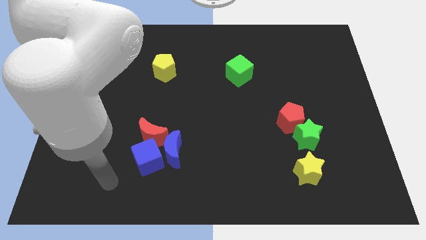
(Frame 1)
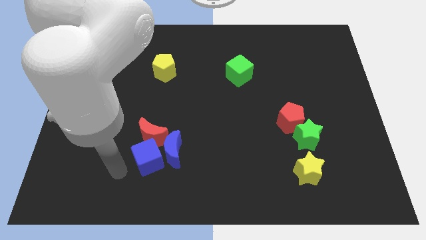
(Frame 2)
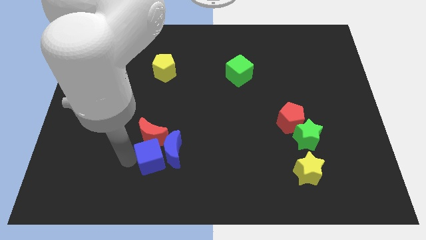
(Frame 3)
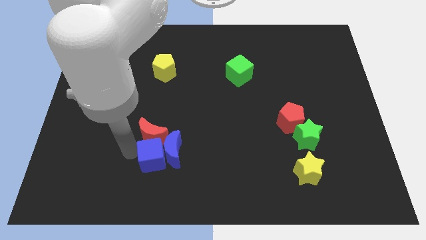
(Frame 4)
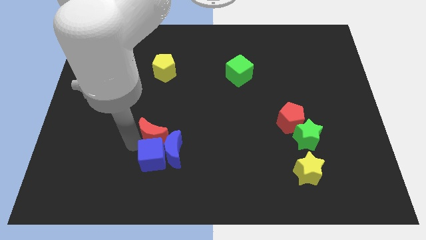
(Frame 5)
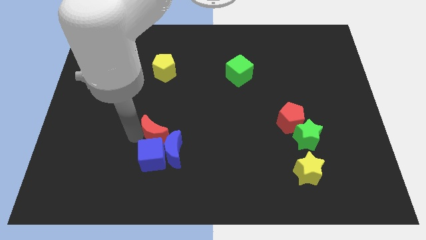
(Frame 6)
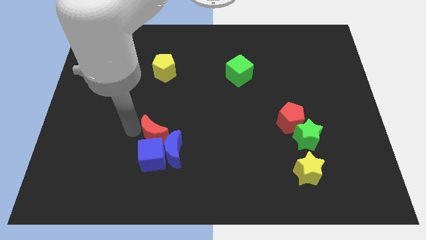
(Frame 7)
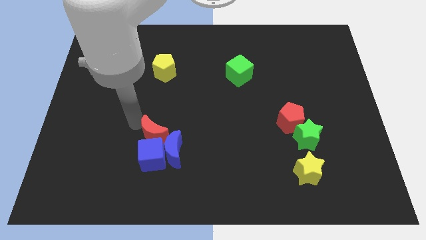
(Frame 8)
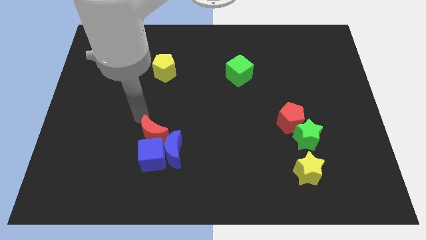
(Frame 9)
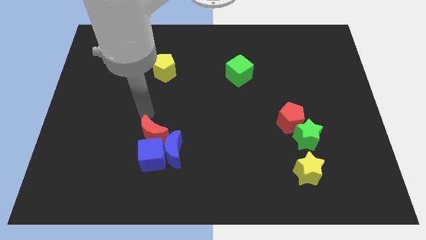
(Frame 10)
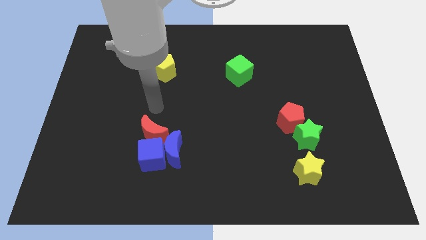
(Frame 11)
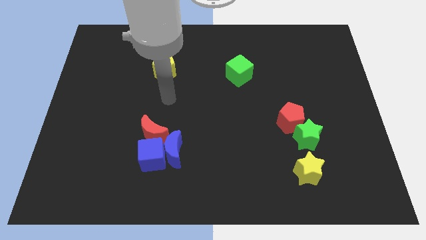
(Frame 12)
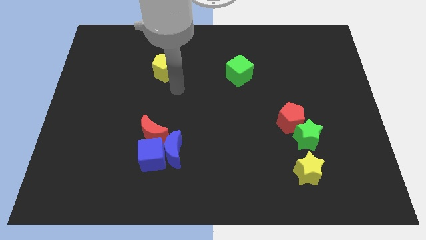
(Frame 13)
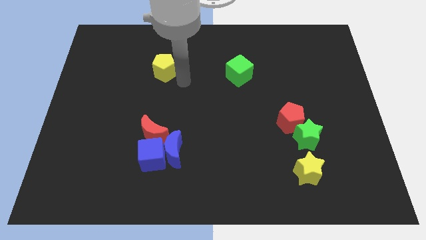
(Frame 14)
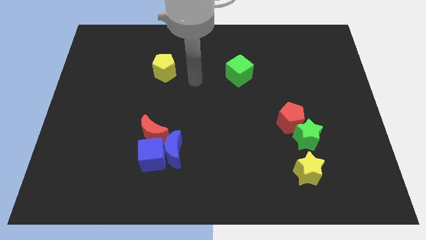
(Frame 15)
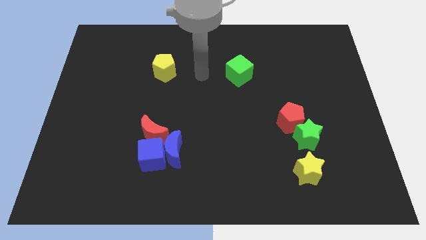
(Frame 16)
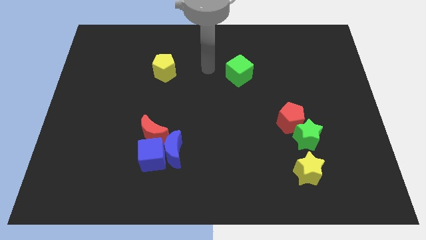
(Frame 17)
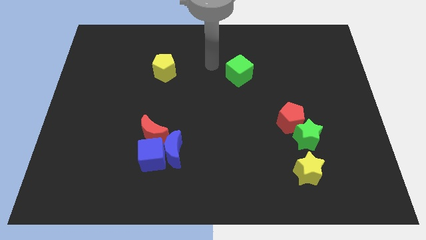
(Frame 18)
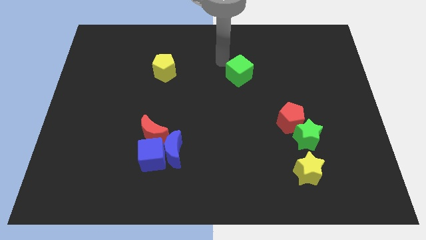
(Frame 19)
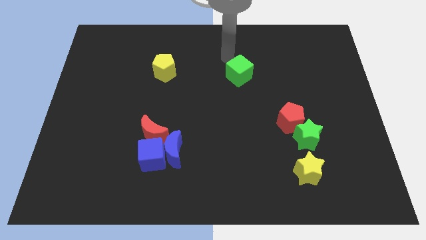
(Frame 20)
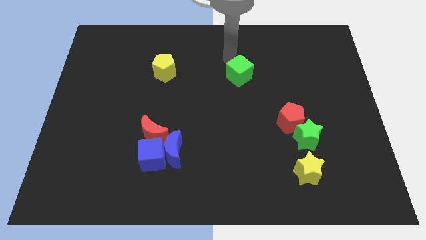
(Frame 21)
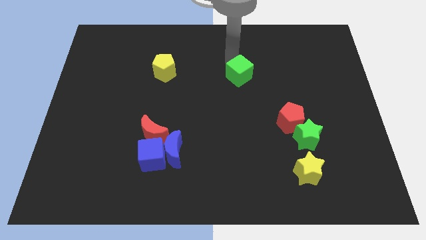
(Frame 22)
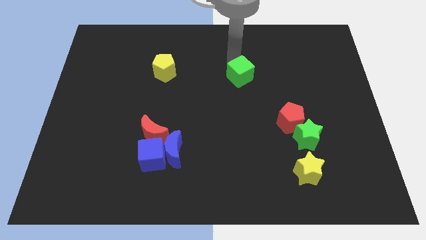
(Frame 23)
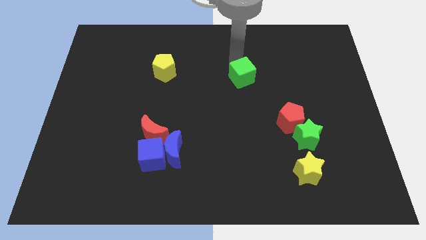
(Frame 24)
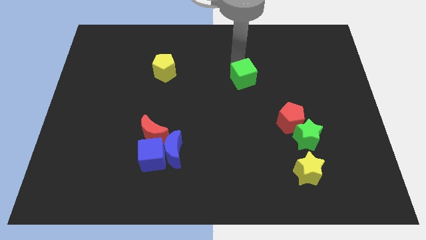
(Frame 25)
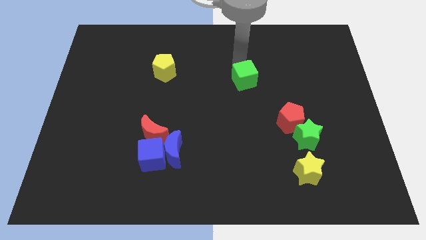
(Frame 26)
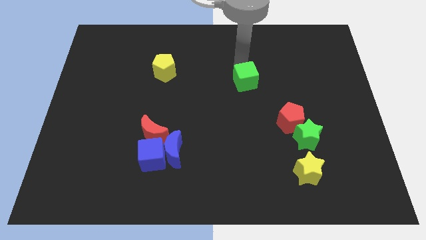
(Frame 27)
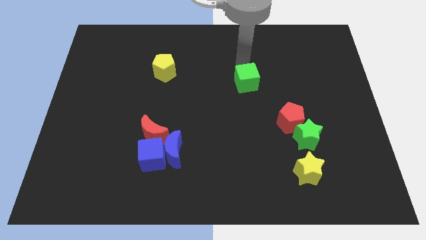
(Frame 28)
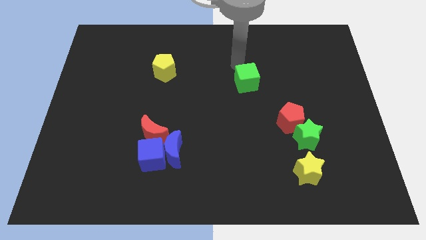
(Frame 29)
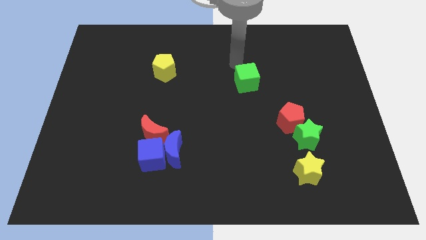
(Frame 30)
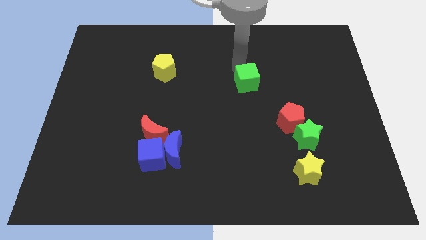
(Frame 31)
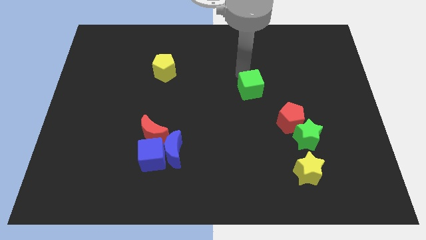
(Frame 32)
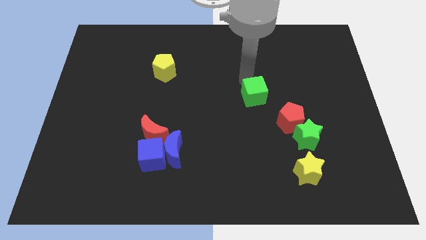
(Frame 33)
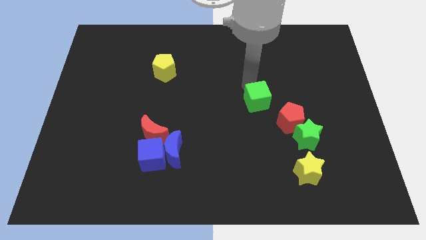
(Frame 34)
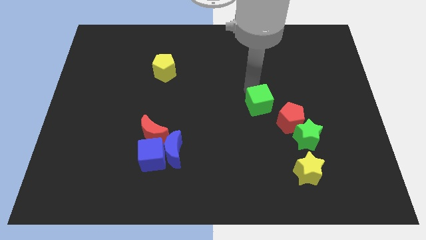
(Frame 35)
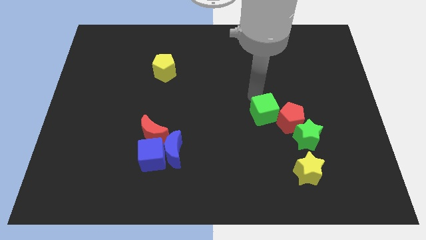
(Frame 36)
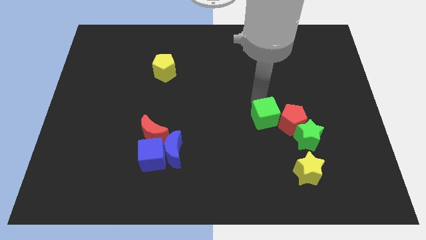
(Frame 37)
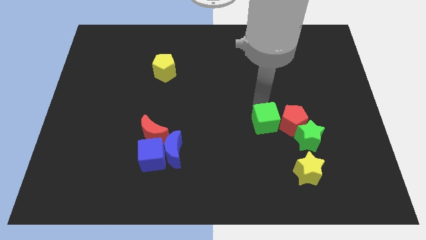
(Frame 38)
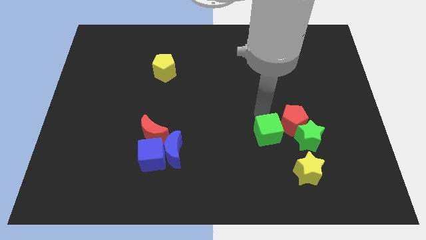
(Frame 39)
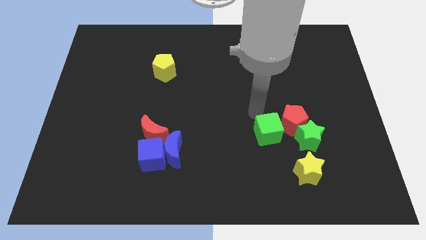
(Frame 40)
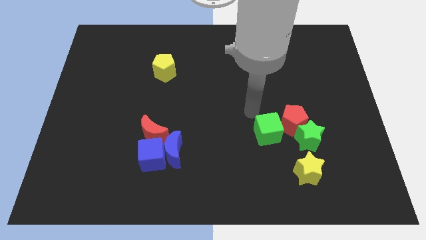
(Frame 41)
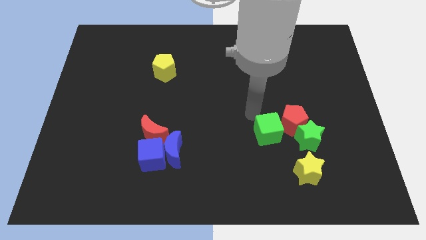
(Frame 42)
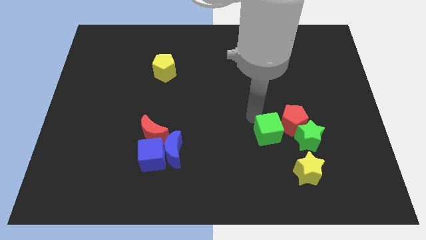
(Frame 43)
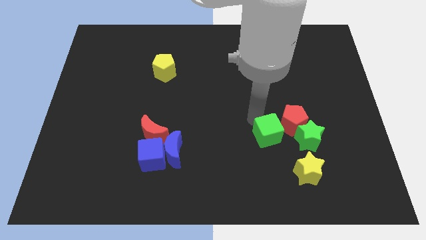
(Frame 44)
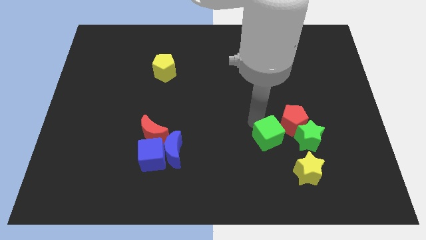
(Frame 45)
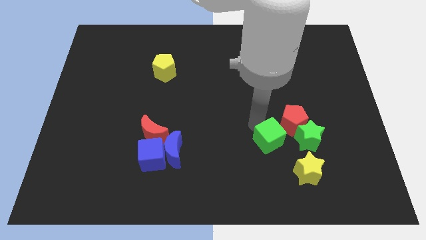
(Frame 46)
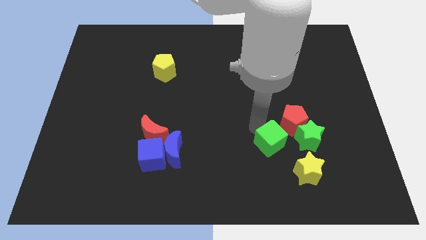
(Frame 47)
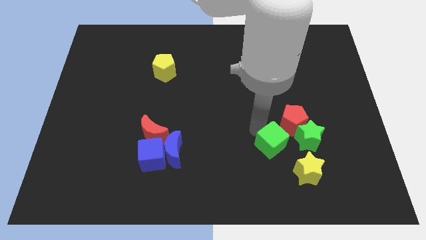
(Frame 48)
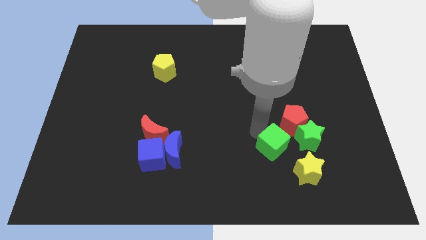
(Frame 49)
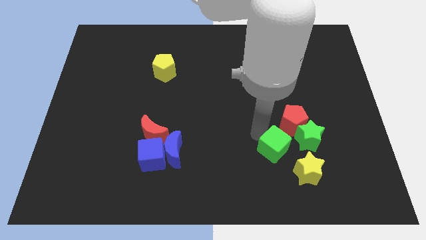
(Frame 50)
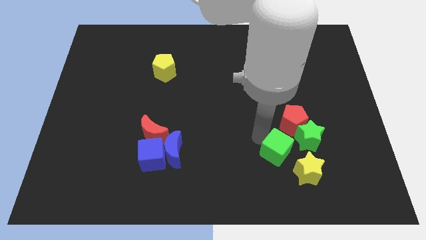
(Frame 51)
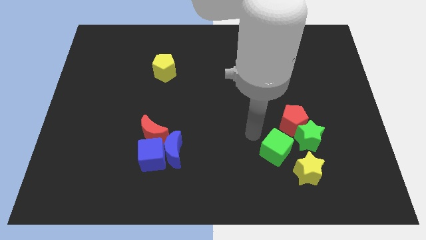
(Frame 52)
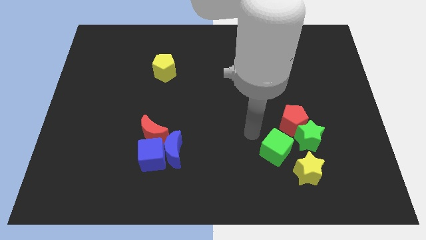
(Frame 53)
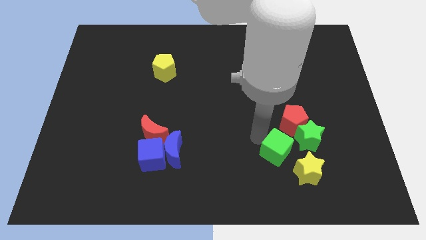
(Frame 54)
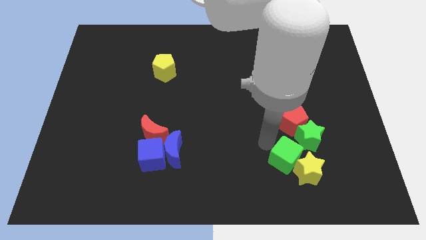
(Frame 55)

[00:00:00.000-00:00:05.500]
slide the green cube next to the yellow star

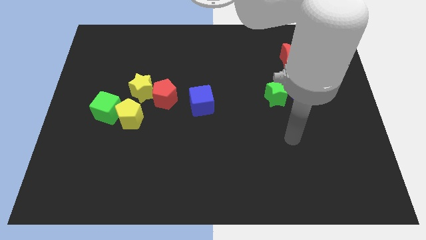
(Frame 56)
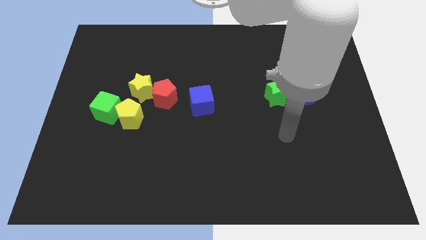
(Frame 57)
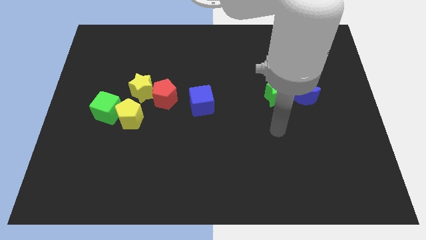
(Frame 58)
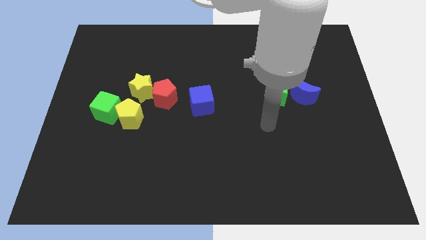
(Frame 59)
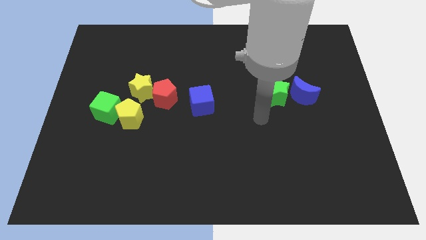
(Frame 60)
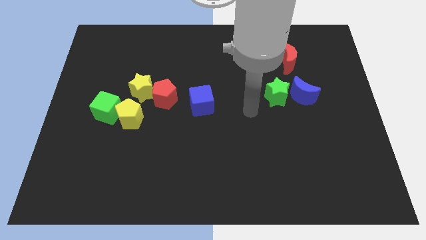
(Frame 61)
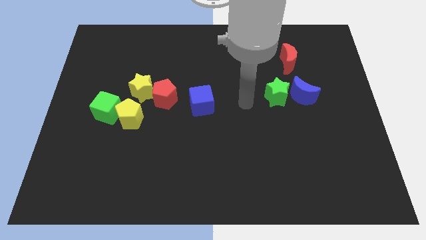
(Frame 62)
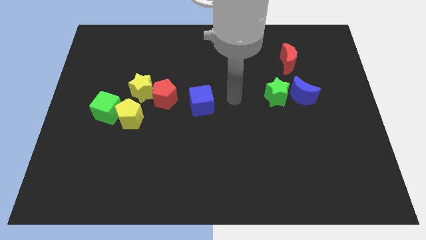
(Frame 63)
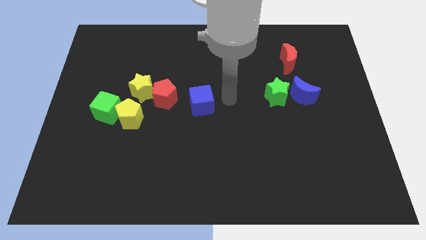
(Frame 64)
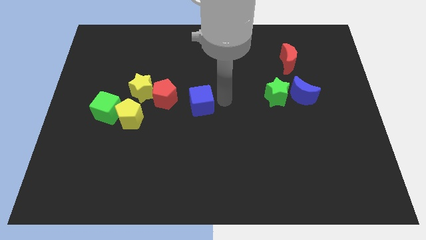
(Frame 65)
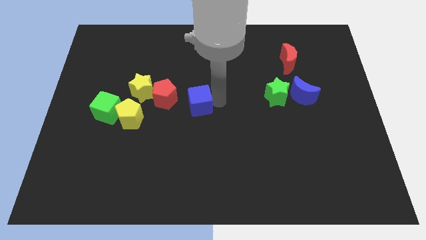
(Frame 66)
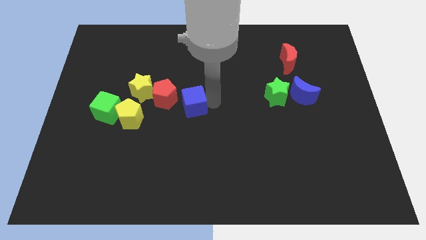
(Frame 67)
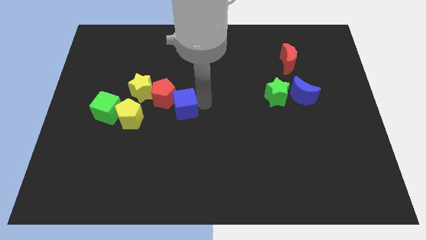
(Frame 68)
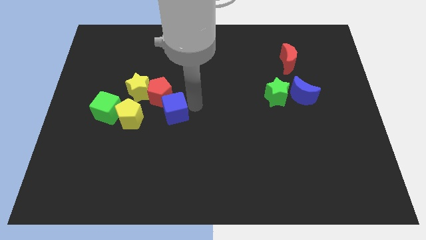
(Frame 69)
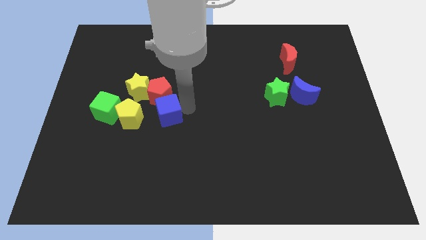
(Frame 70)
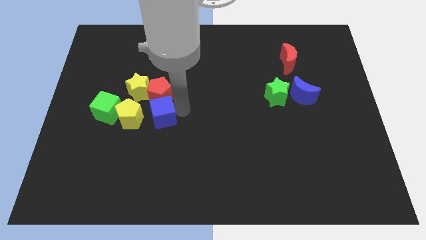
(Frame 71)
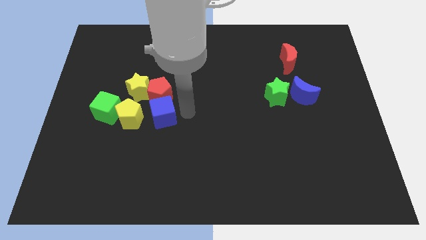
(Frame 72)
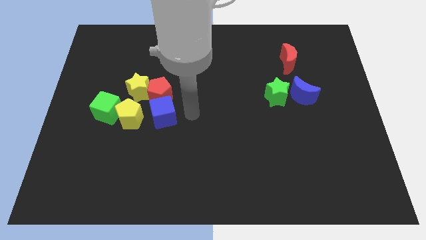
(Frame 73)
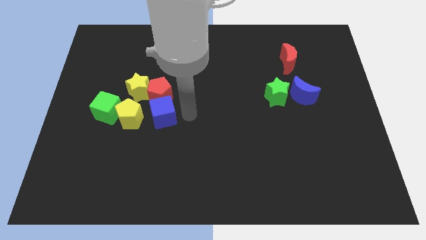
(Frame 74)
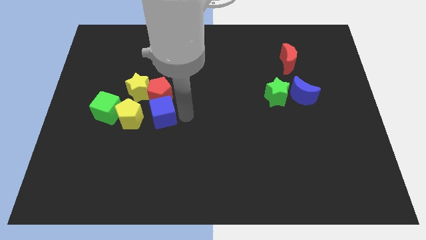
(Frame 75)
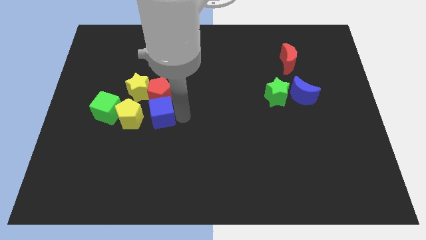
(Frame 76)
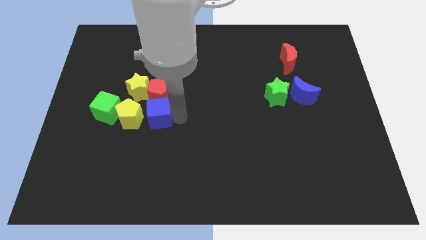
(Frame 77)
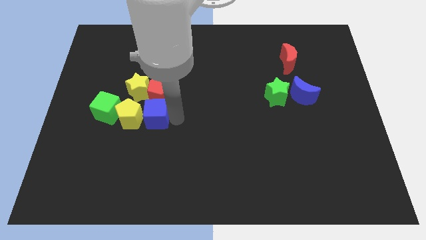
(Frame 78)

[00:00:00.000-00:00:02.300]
slide the blue cube to the yellow pentagon

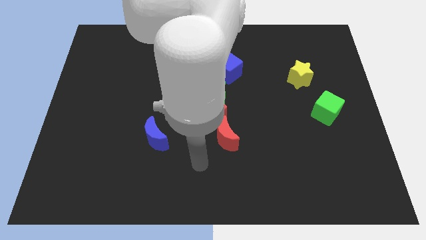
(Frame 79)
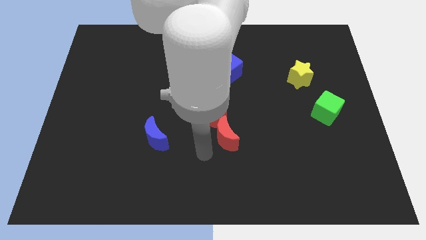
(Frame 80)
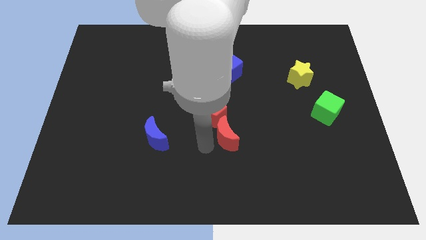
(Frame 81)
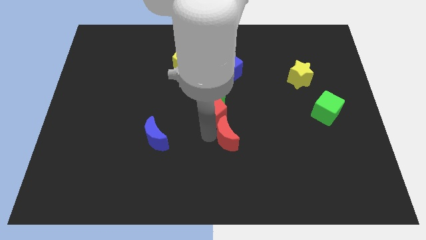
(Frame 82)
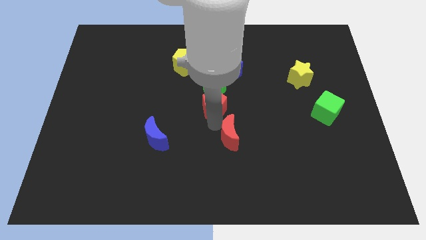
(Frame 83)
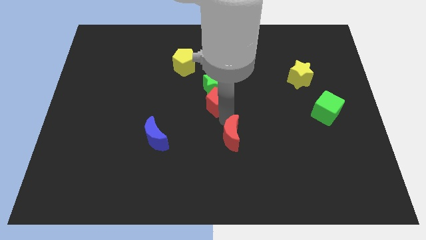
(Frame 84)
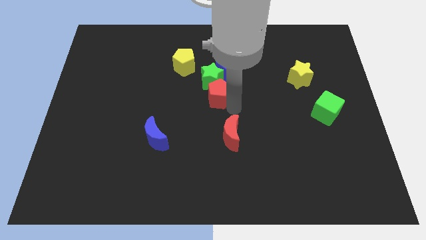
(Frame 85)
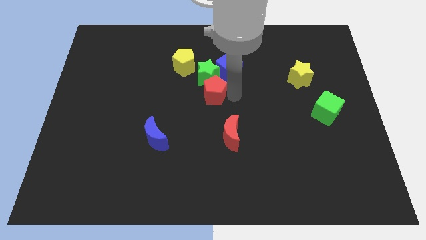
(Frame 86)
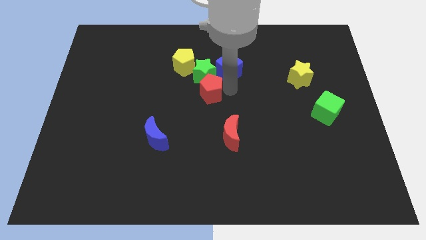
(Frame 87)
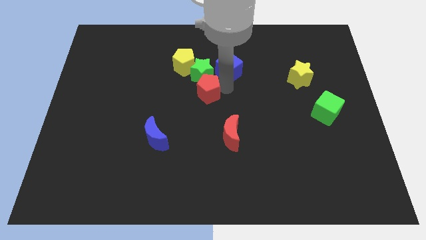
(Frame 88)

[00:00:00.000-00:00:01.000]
push the green star next to the yellow pentagon
